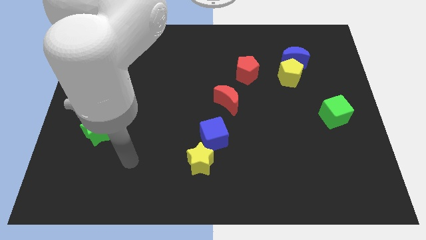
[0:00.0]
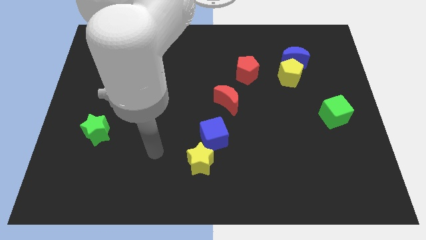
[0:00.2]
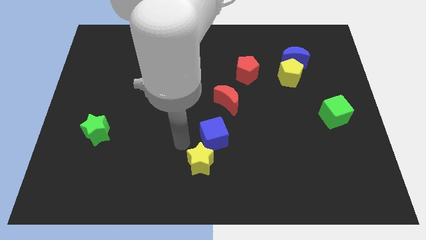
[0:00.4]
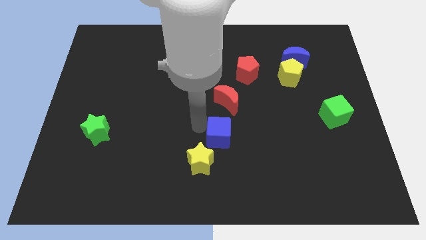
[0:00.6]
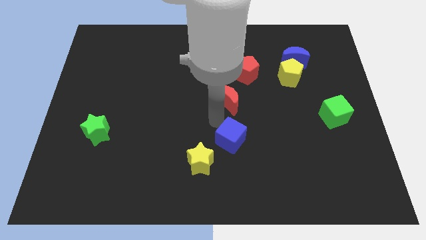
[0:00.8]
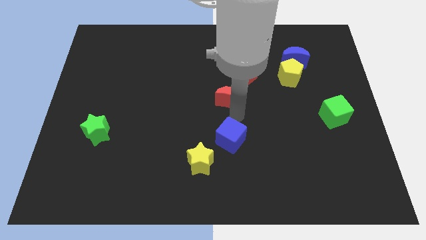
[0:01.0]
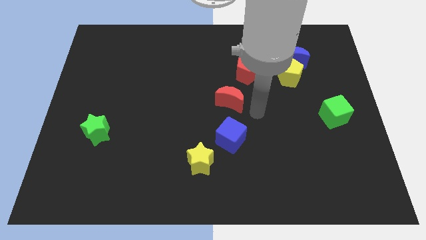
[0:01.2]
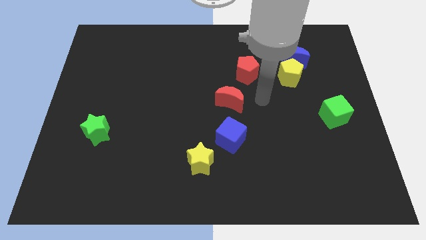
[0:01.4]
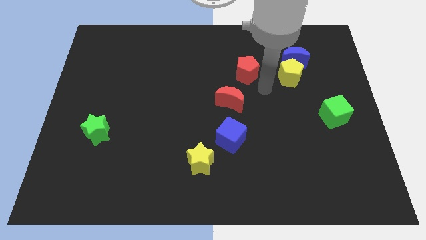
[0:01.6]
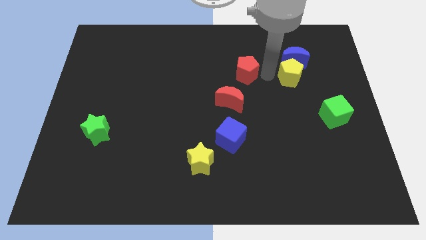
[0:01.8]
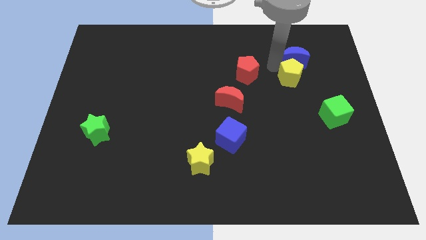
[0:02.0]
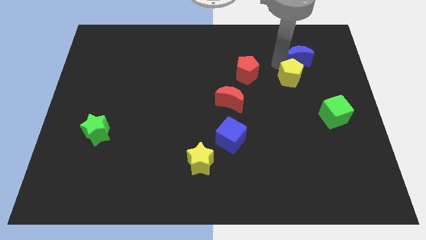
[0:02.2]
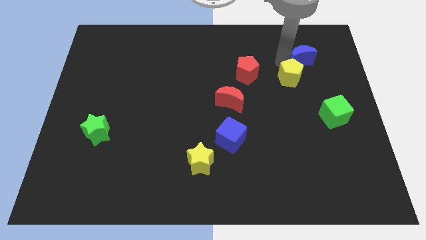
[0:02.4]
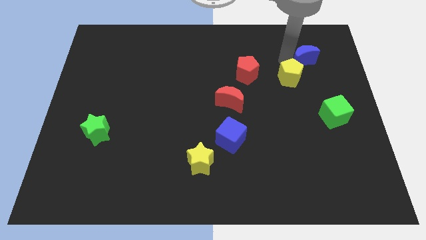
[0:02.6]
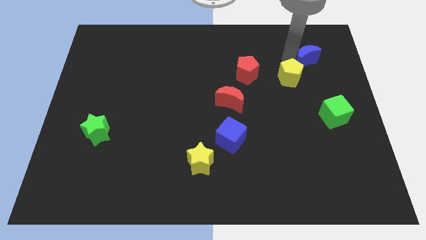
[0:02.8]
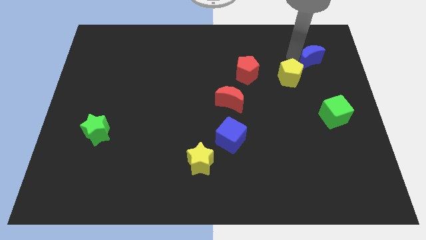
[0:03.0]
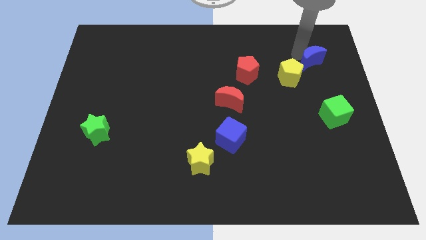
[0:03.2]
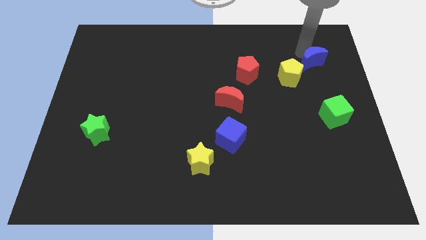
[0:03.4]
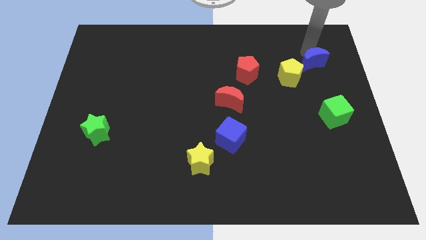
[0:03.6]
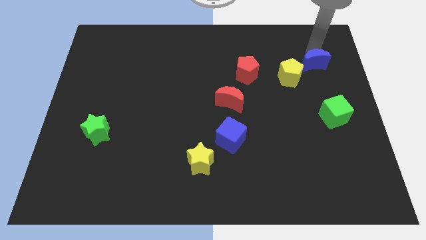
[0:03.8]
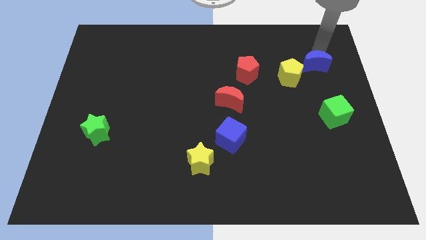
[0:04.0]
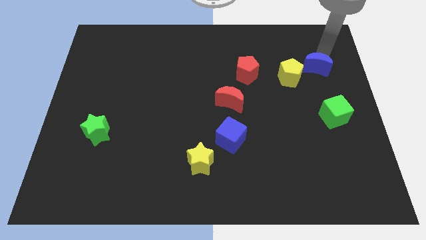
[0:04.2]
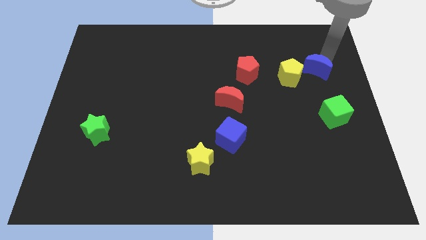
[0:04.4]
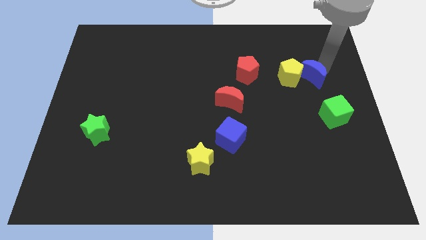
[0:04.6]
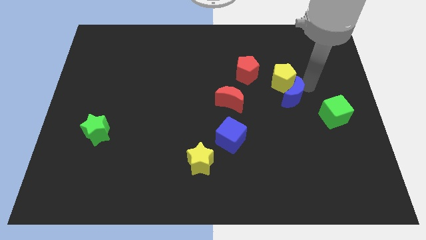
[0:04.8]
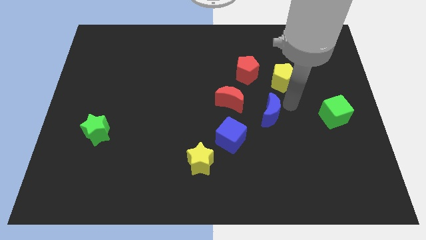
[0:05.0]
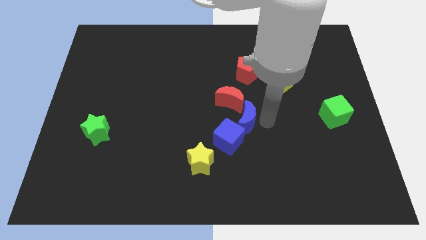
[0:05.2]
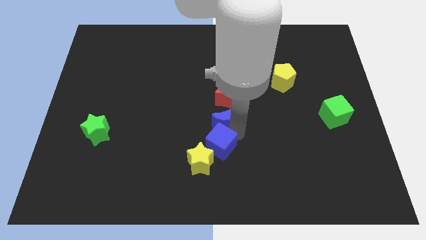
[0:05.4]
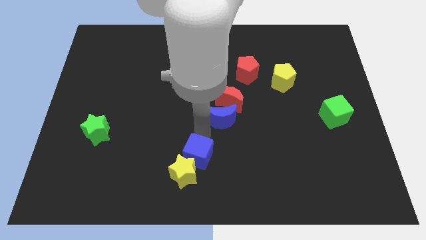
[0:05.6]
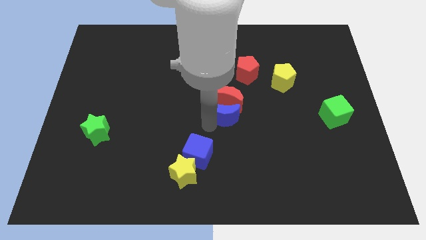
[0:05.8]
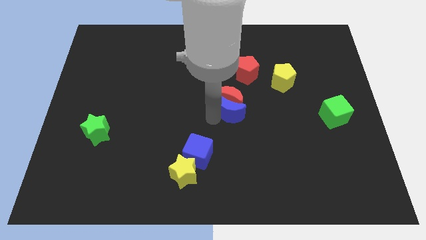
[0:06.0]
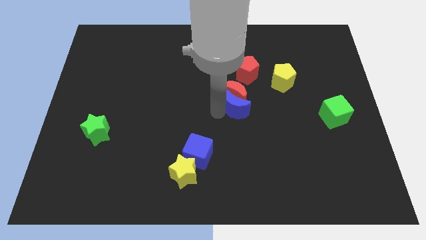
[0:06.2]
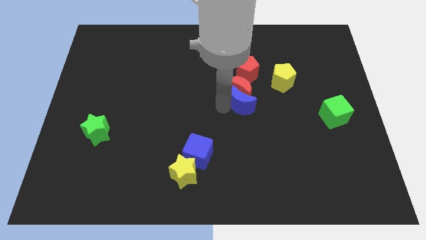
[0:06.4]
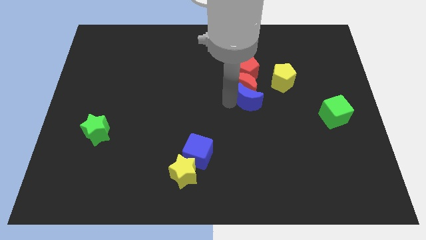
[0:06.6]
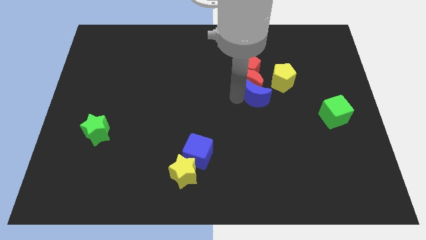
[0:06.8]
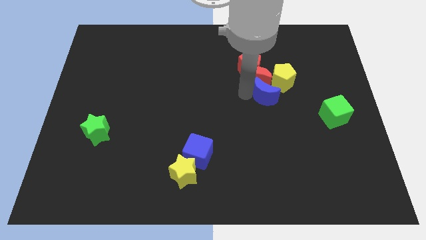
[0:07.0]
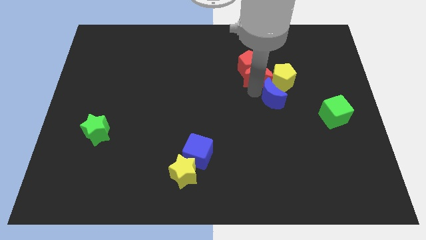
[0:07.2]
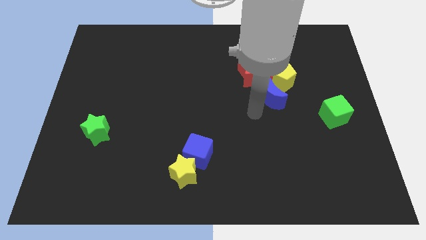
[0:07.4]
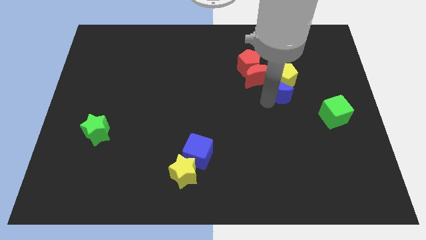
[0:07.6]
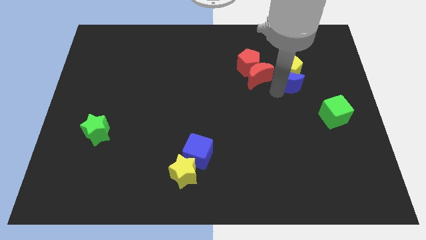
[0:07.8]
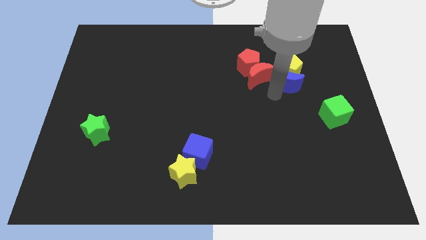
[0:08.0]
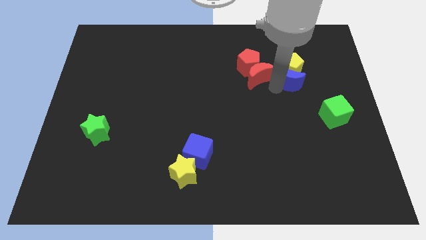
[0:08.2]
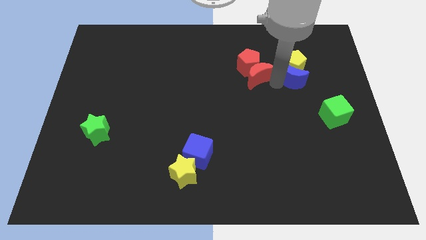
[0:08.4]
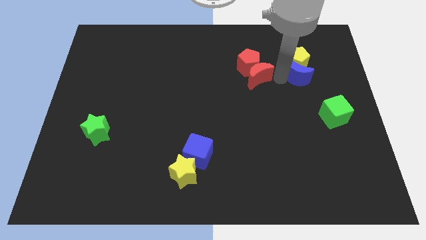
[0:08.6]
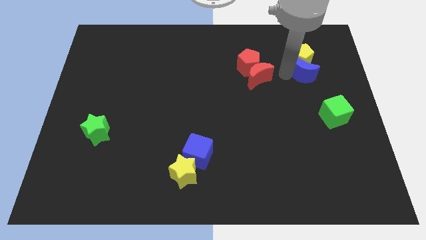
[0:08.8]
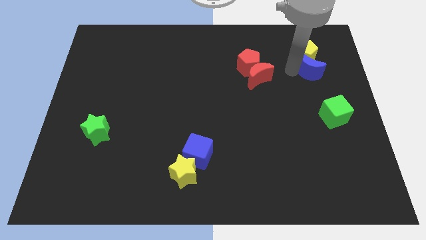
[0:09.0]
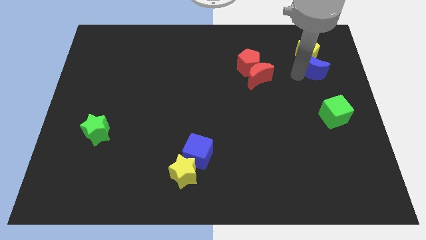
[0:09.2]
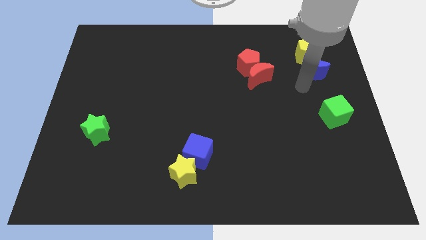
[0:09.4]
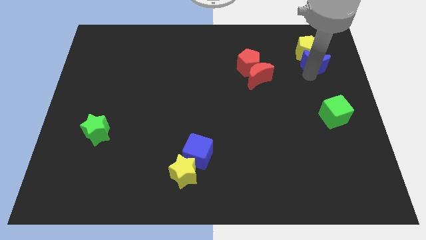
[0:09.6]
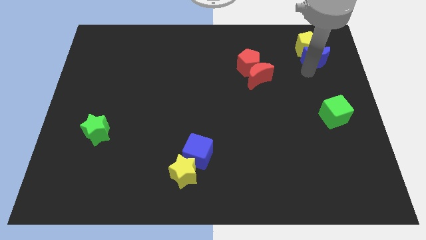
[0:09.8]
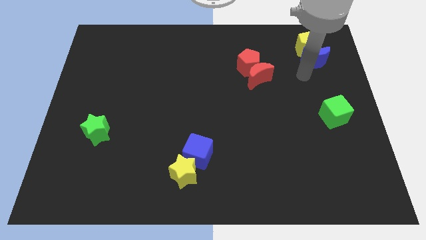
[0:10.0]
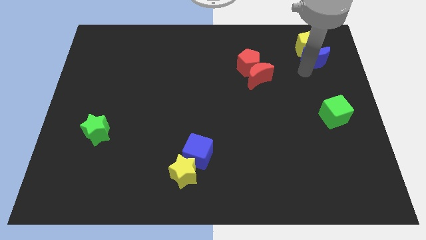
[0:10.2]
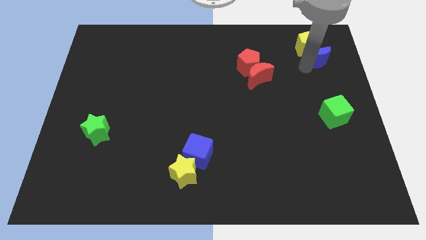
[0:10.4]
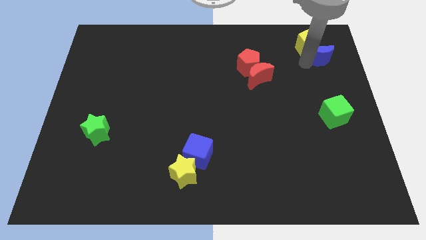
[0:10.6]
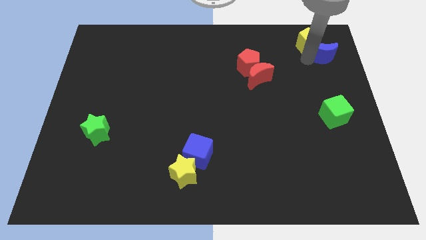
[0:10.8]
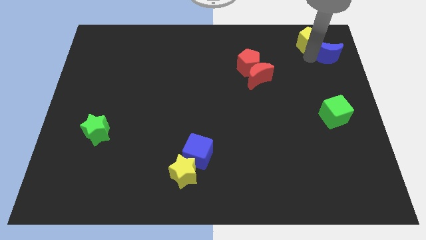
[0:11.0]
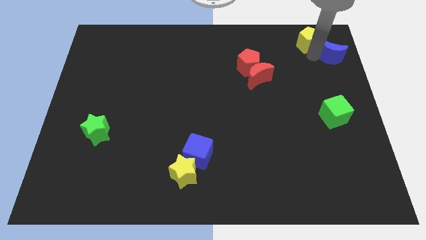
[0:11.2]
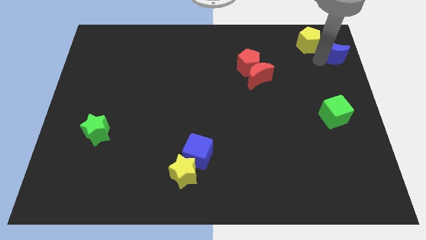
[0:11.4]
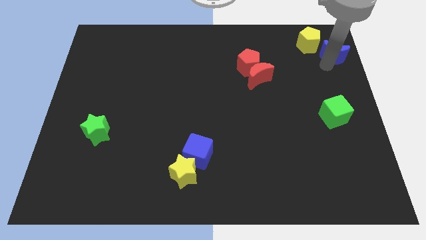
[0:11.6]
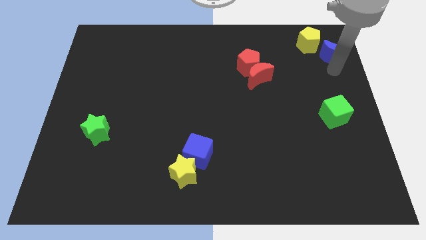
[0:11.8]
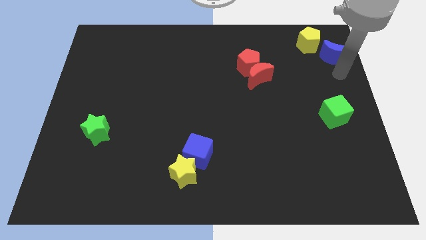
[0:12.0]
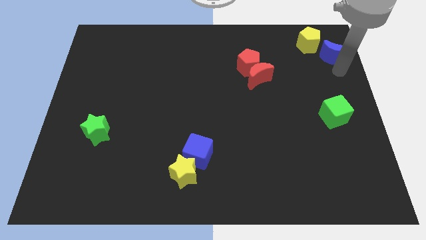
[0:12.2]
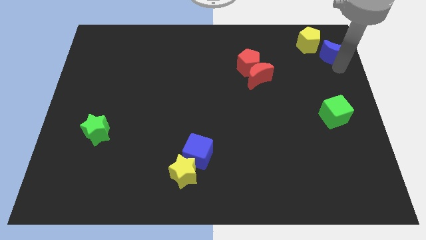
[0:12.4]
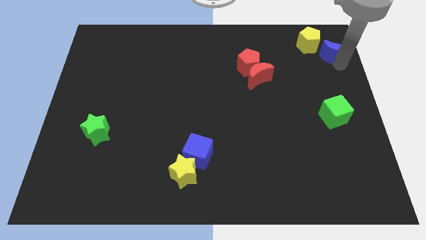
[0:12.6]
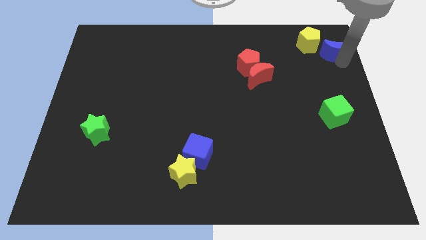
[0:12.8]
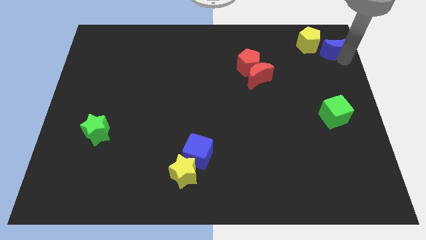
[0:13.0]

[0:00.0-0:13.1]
push the blue moon to the top right

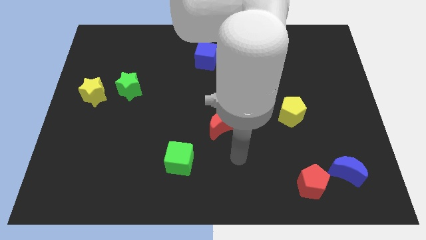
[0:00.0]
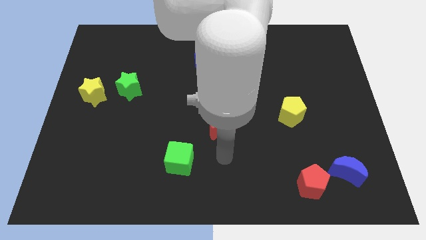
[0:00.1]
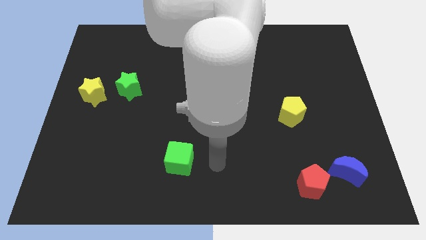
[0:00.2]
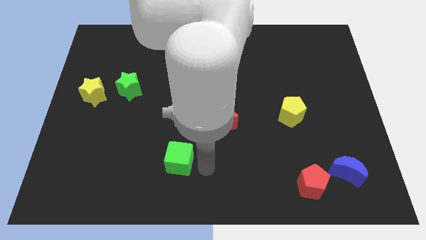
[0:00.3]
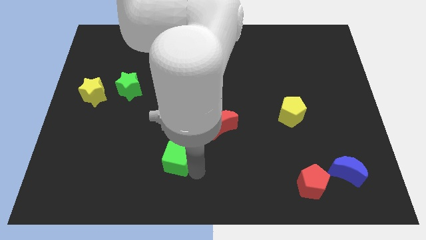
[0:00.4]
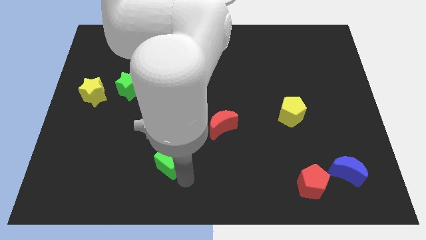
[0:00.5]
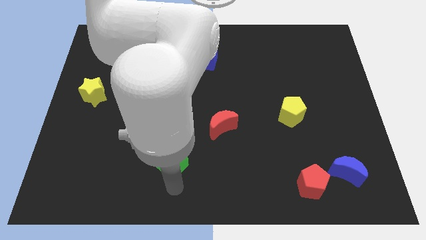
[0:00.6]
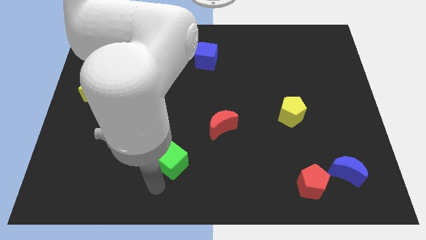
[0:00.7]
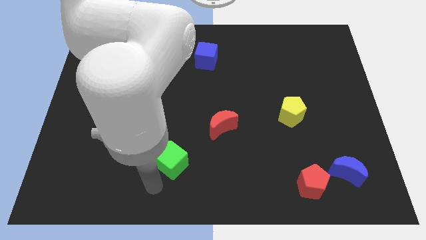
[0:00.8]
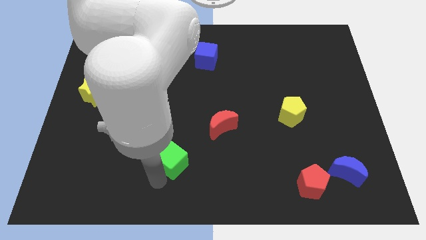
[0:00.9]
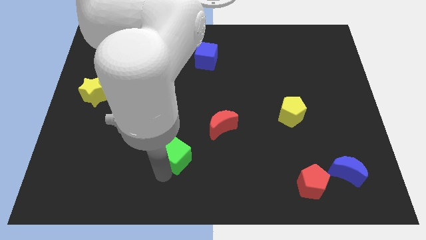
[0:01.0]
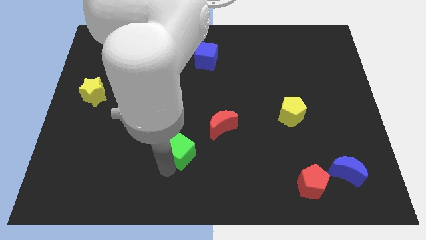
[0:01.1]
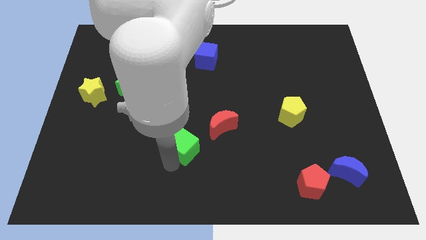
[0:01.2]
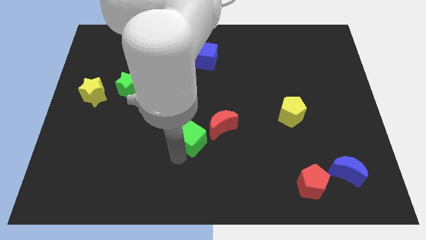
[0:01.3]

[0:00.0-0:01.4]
put the green cube to the center of the board
